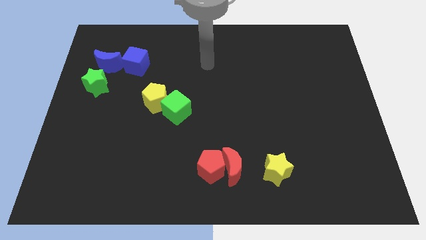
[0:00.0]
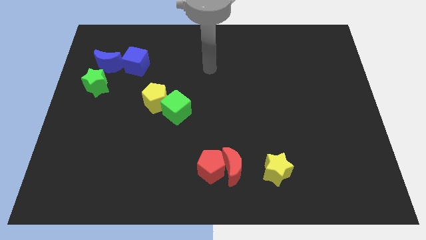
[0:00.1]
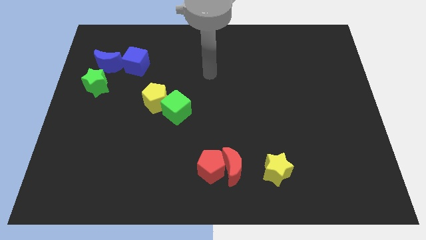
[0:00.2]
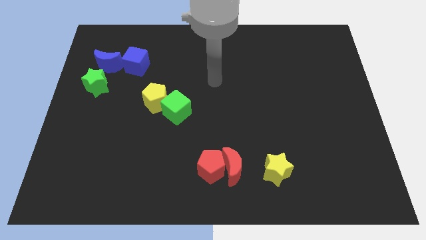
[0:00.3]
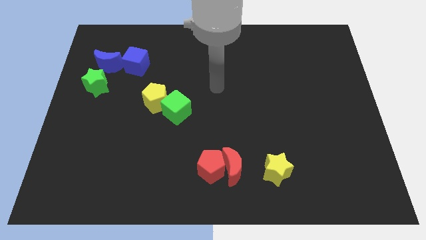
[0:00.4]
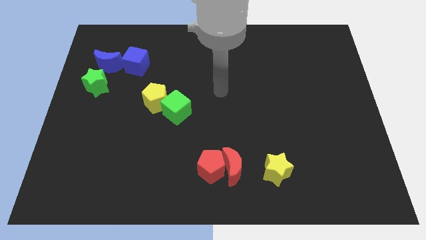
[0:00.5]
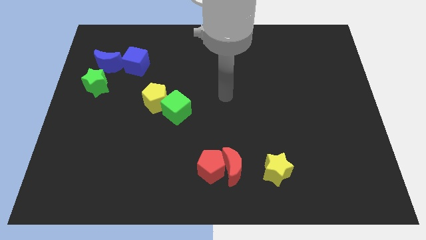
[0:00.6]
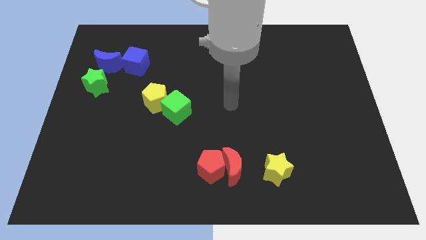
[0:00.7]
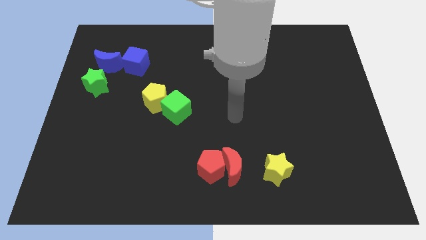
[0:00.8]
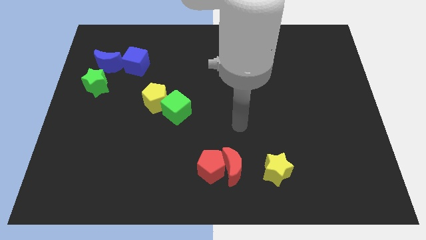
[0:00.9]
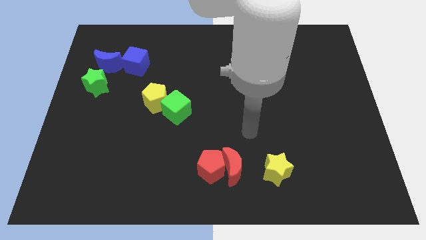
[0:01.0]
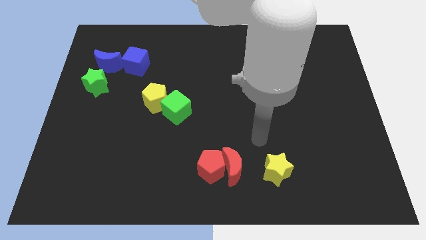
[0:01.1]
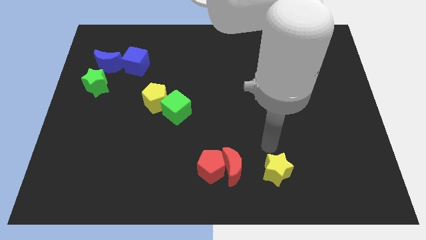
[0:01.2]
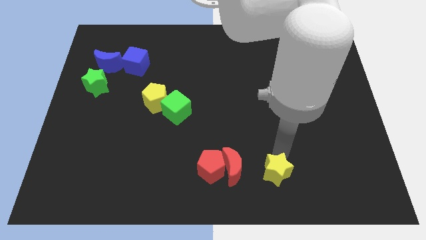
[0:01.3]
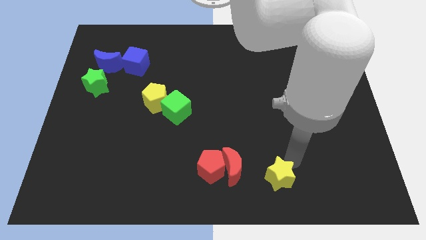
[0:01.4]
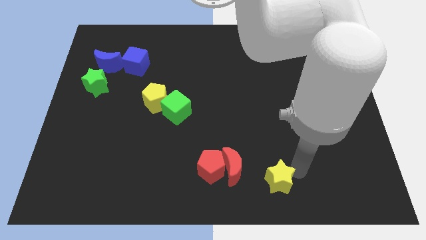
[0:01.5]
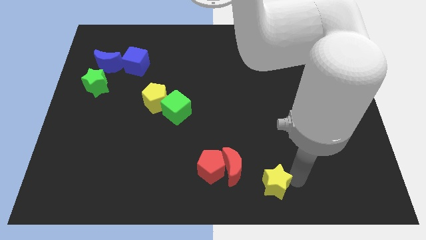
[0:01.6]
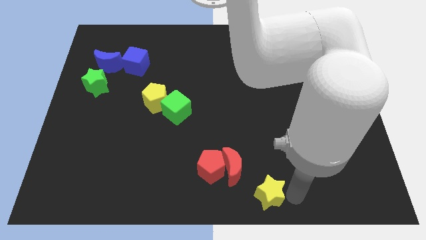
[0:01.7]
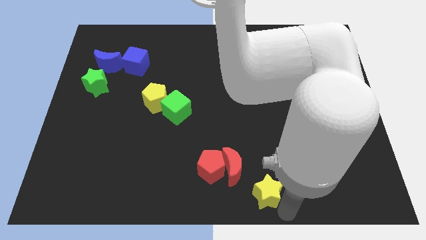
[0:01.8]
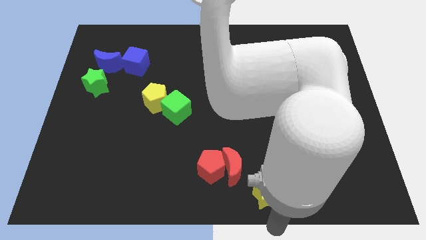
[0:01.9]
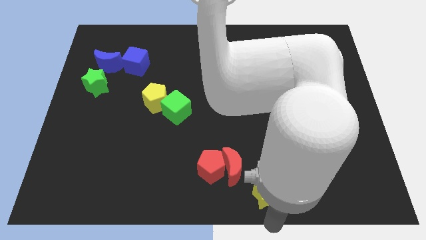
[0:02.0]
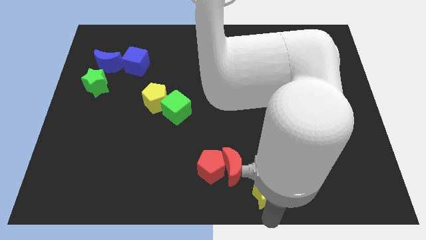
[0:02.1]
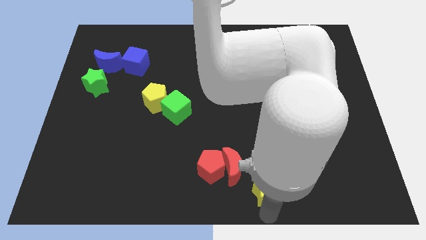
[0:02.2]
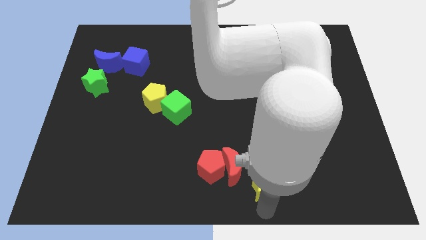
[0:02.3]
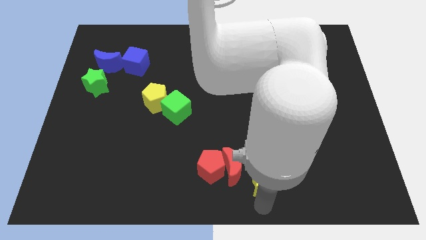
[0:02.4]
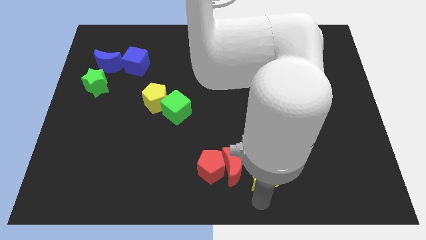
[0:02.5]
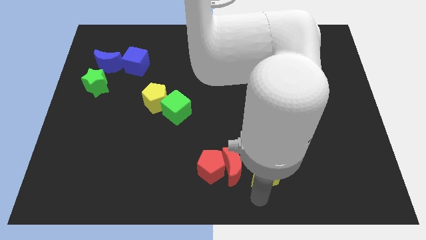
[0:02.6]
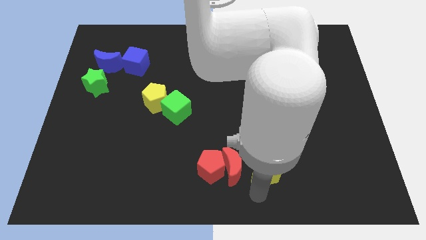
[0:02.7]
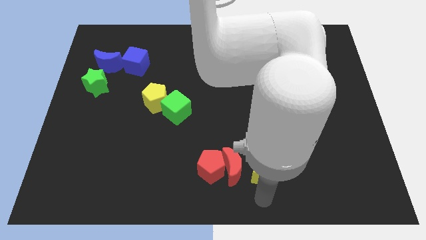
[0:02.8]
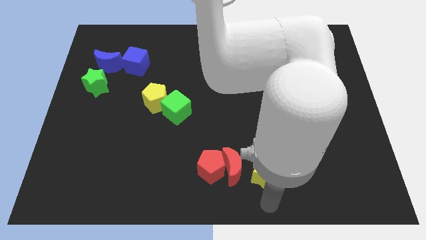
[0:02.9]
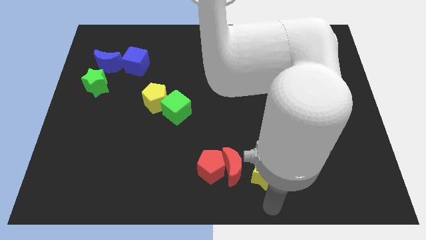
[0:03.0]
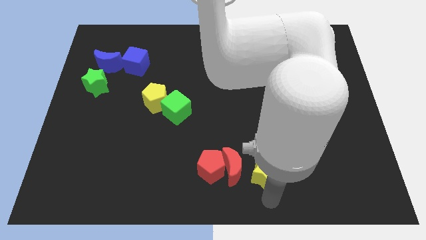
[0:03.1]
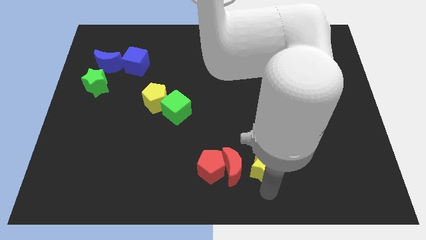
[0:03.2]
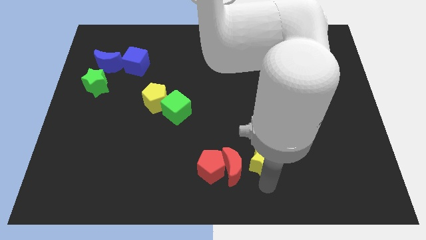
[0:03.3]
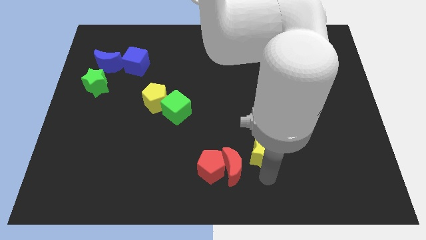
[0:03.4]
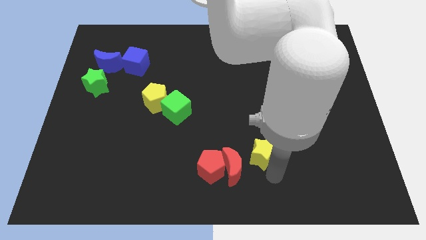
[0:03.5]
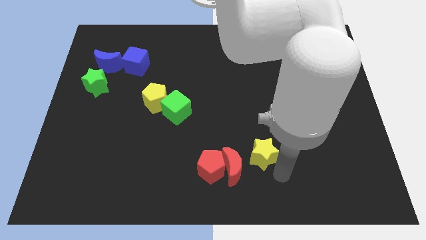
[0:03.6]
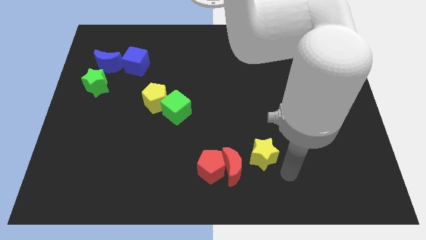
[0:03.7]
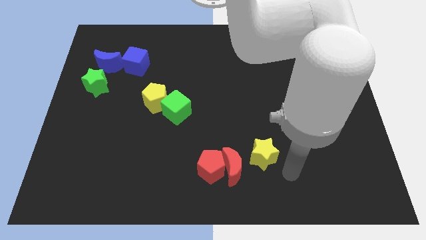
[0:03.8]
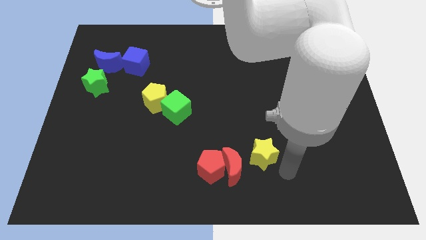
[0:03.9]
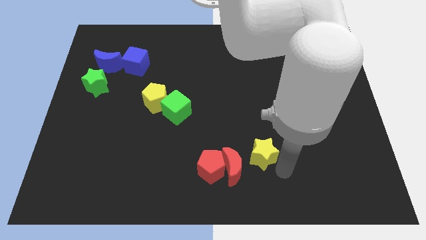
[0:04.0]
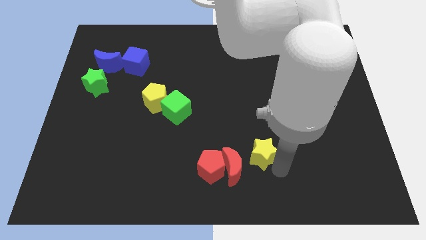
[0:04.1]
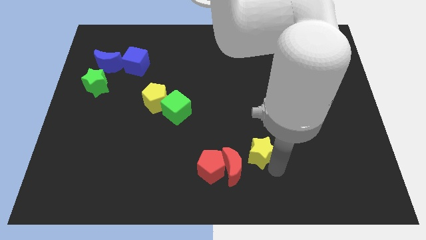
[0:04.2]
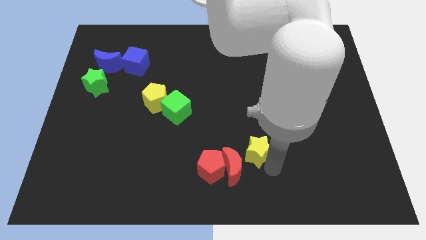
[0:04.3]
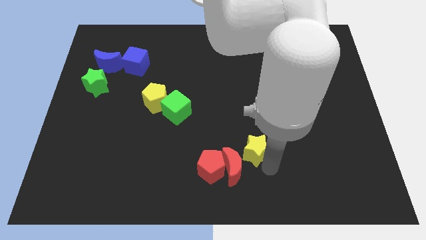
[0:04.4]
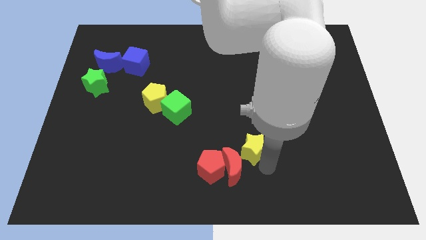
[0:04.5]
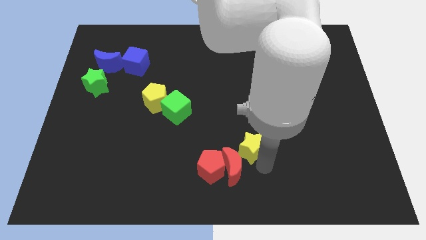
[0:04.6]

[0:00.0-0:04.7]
push the yellow star upwards and then to the left somewhat

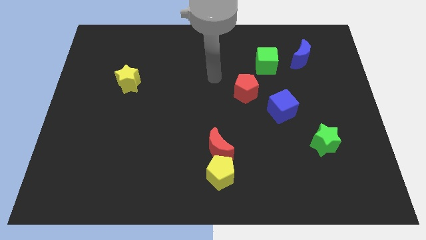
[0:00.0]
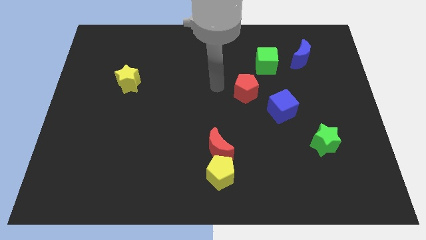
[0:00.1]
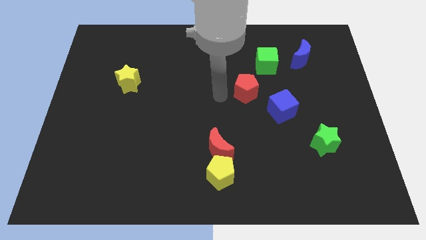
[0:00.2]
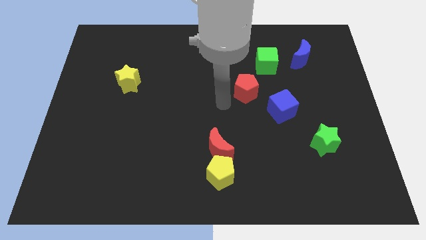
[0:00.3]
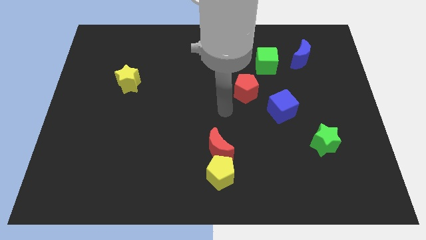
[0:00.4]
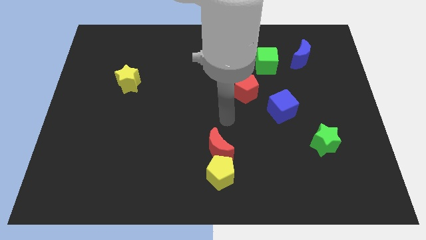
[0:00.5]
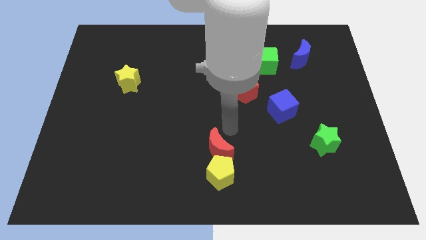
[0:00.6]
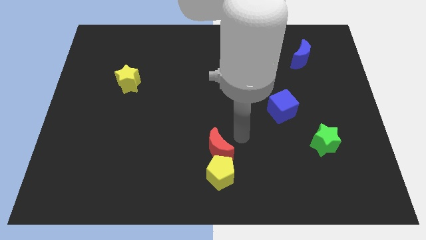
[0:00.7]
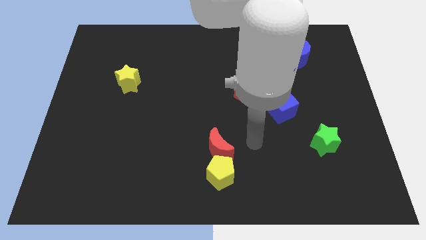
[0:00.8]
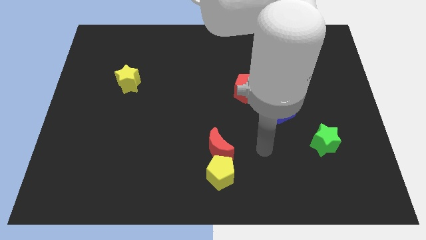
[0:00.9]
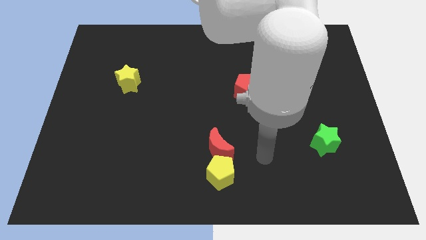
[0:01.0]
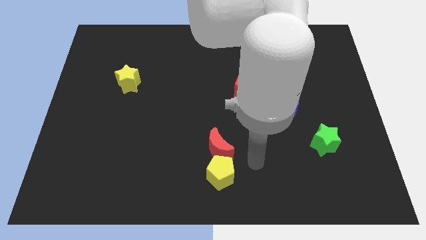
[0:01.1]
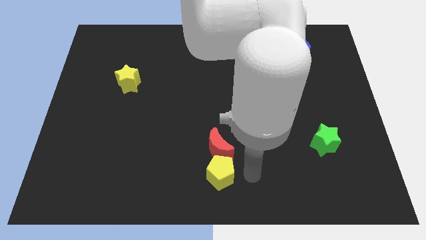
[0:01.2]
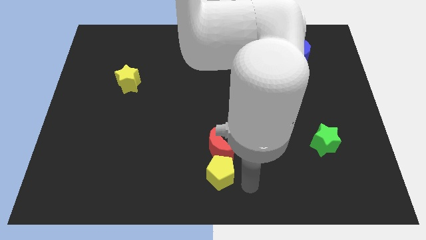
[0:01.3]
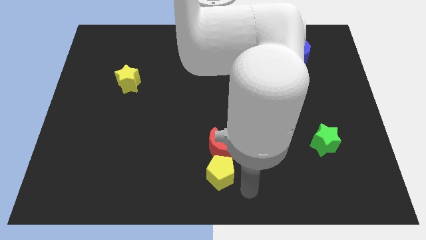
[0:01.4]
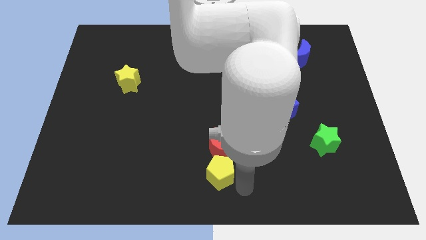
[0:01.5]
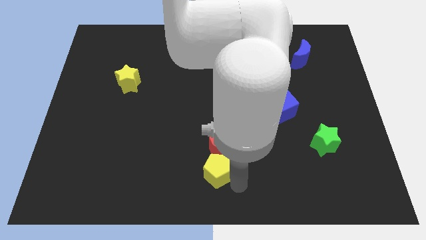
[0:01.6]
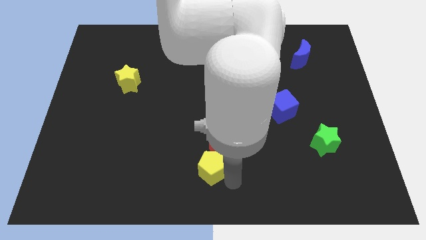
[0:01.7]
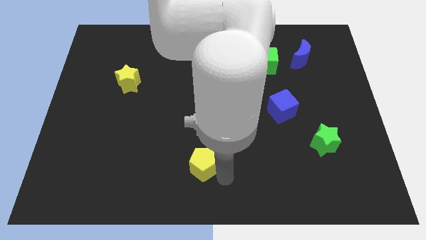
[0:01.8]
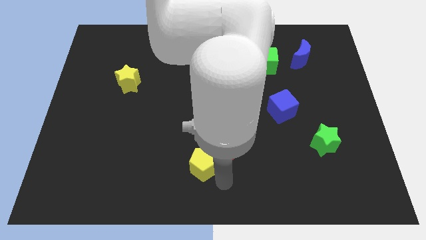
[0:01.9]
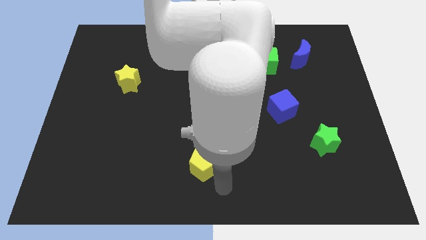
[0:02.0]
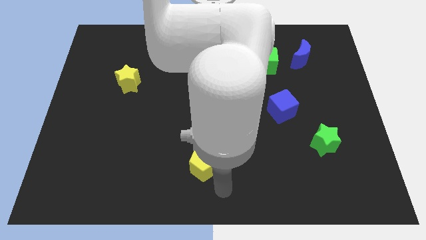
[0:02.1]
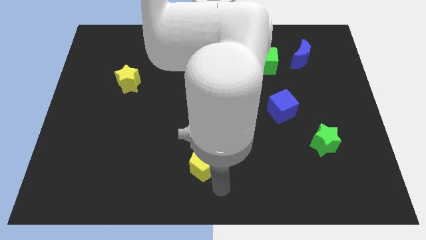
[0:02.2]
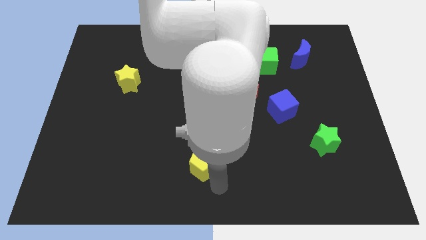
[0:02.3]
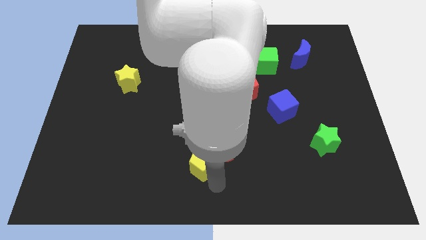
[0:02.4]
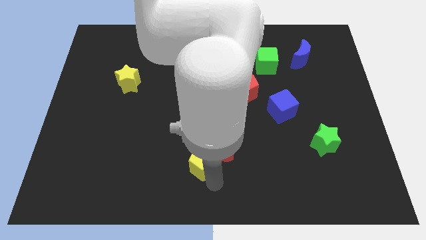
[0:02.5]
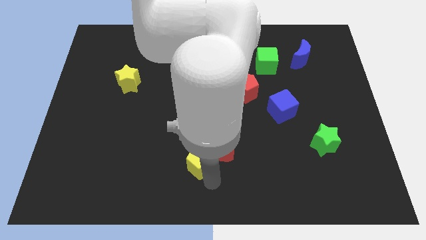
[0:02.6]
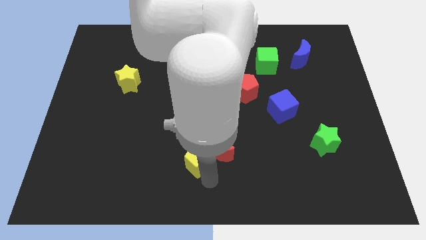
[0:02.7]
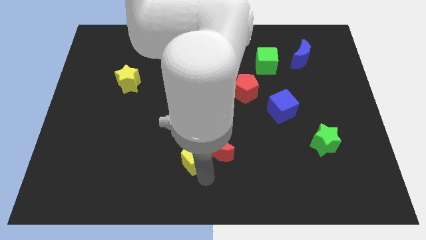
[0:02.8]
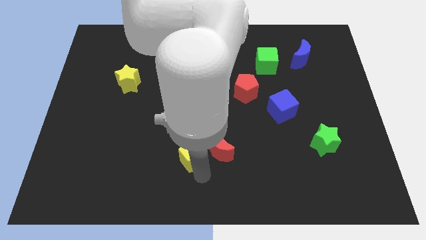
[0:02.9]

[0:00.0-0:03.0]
push the yellow pentagon a bit diagonally up and to the left
